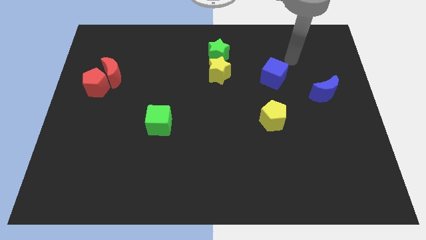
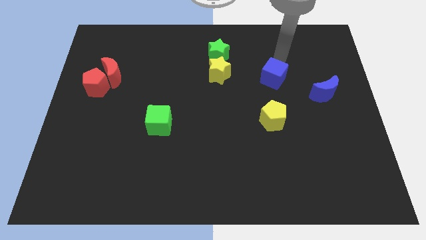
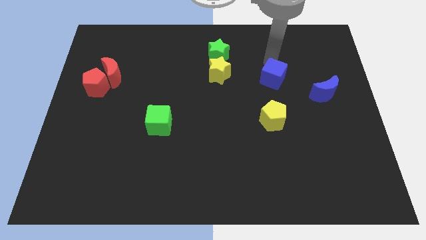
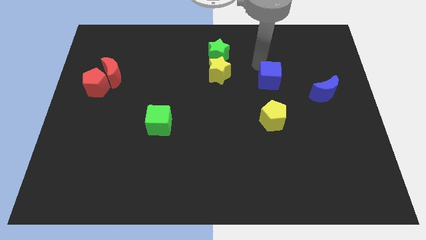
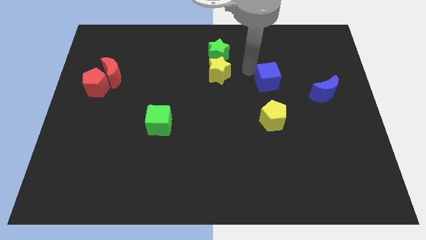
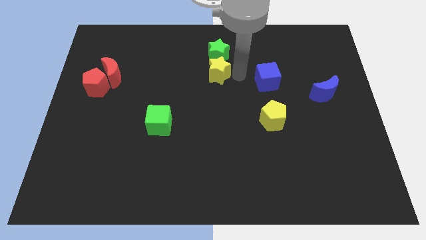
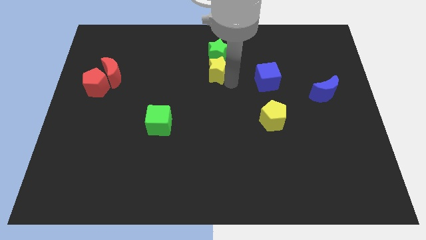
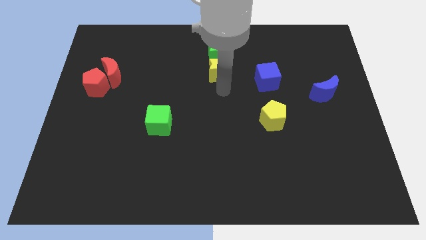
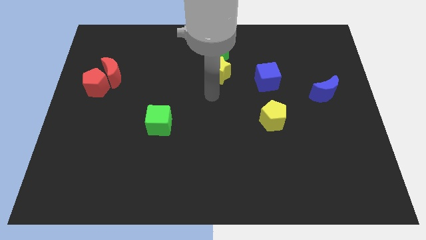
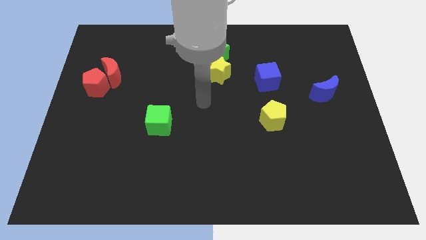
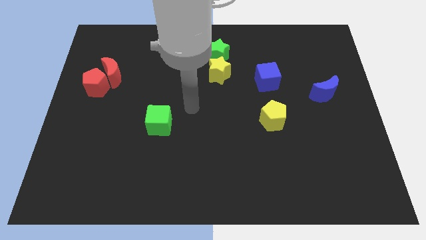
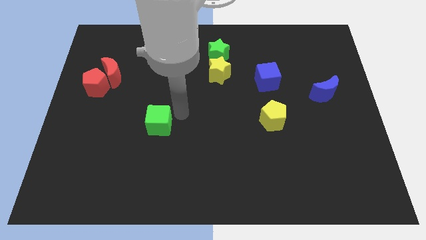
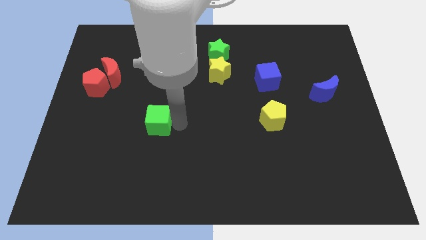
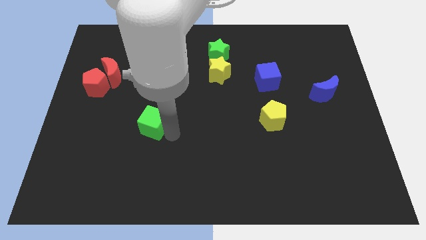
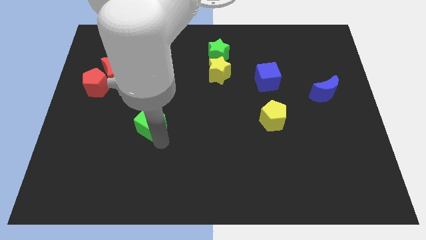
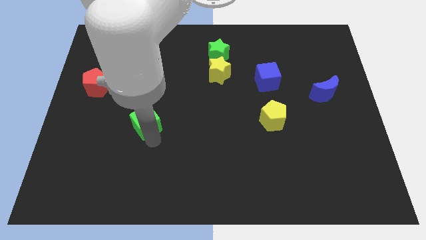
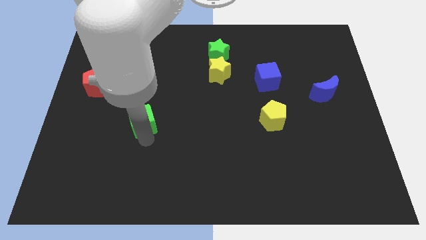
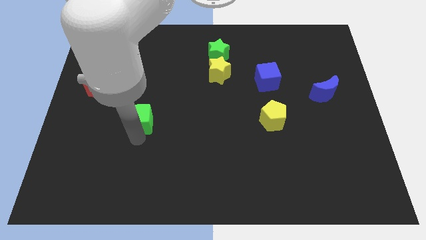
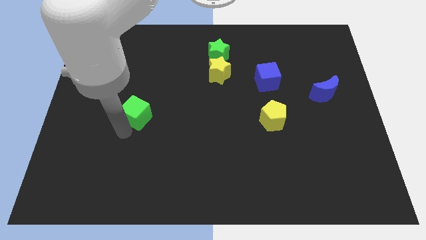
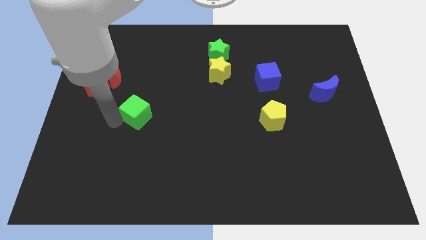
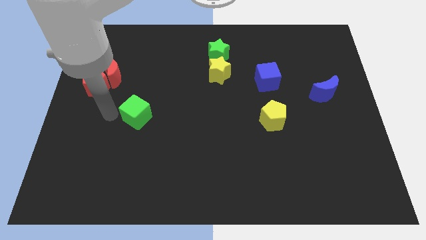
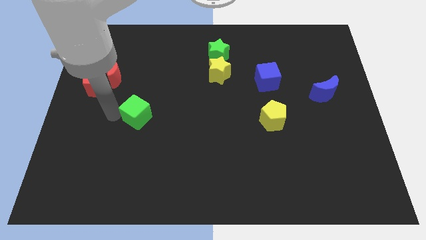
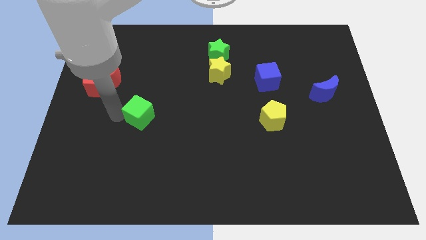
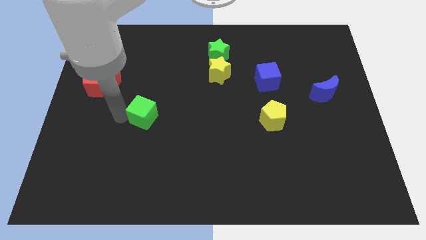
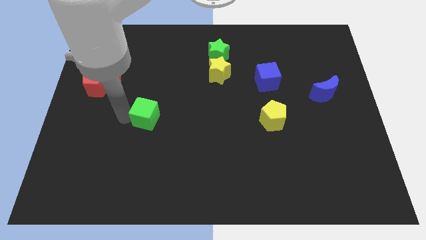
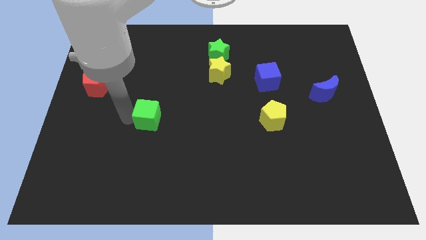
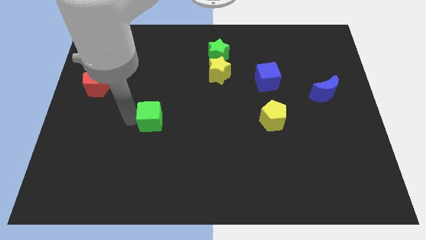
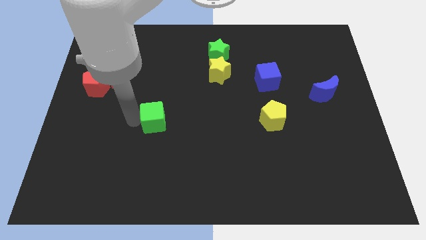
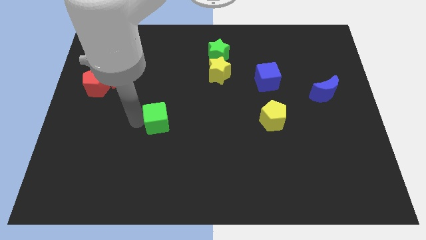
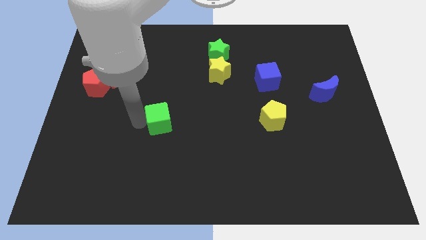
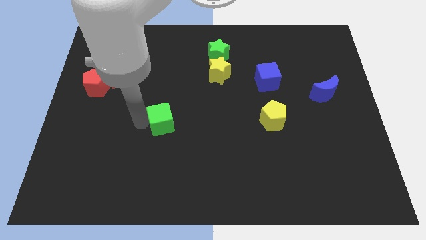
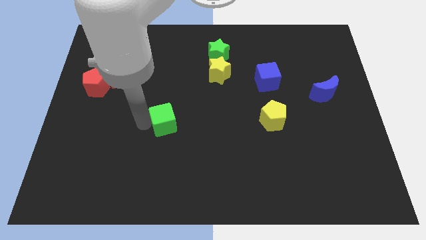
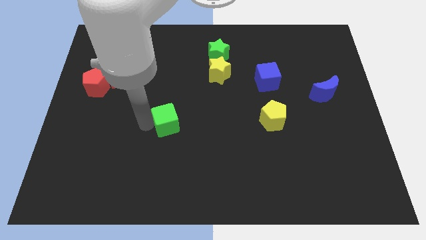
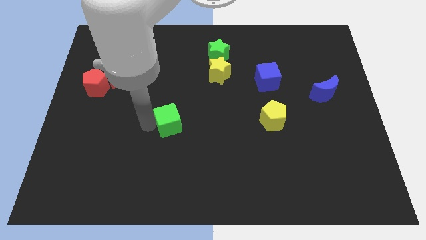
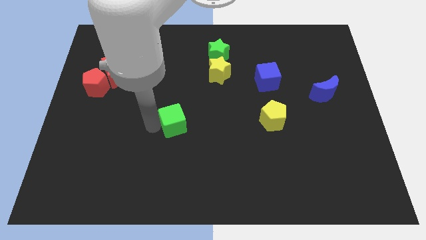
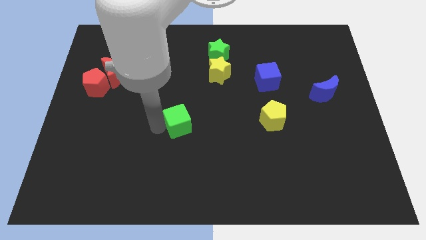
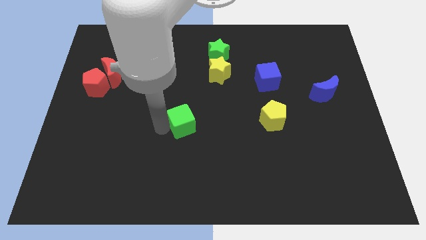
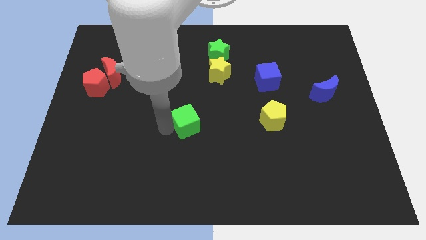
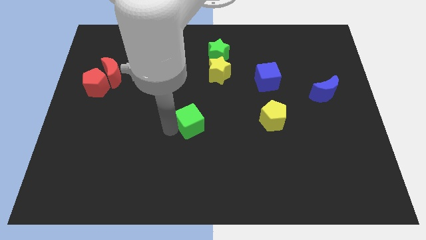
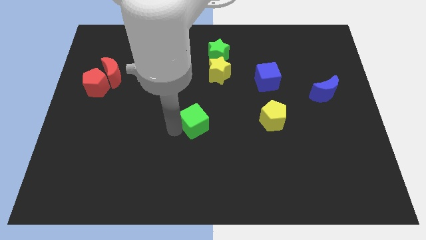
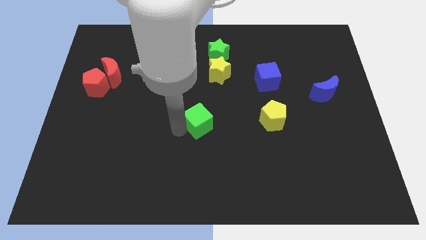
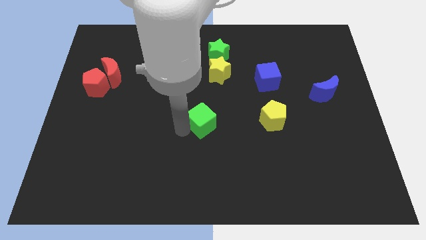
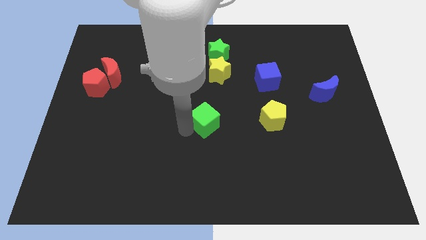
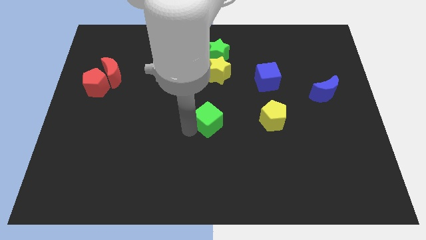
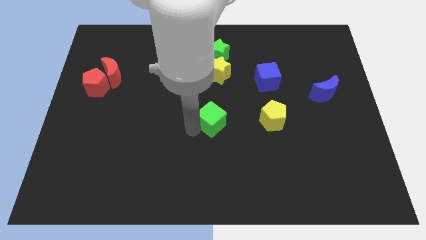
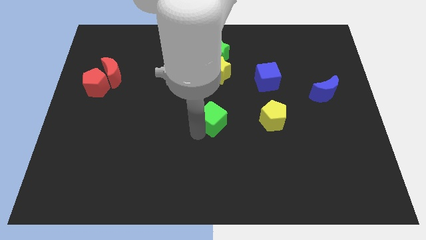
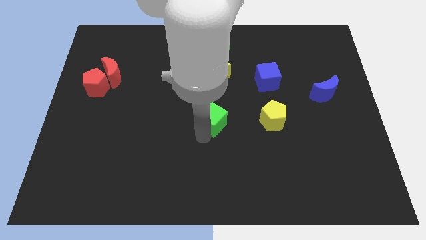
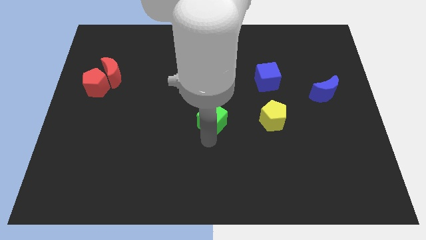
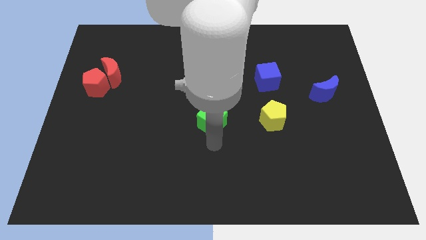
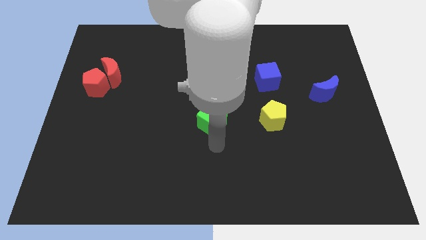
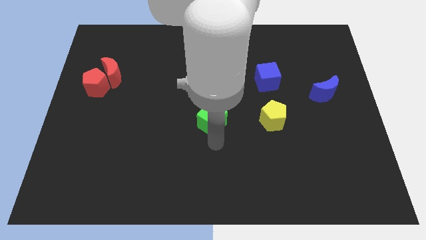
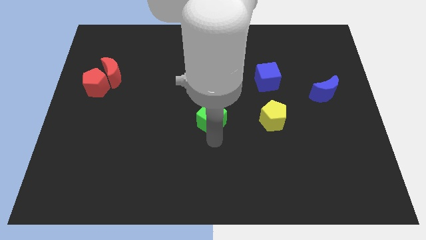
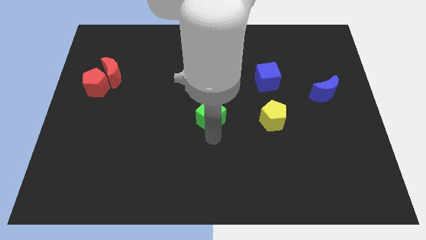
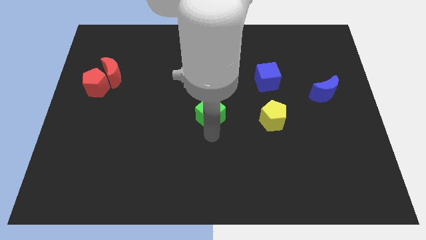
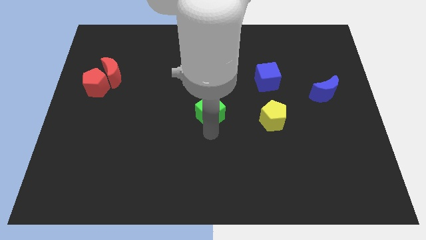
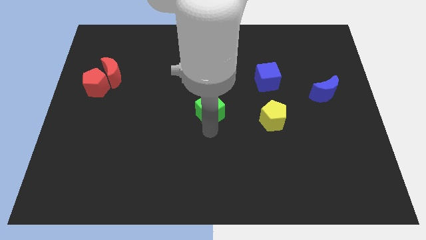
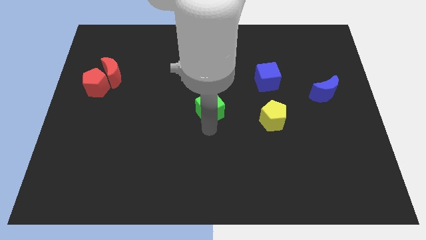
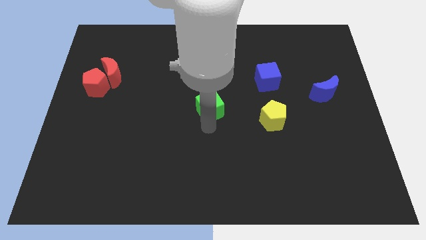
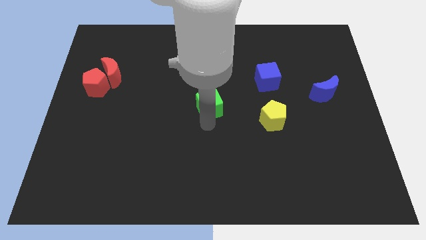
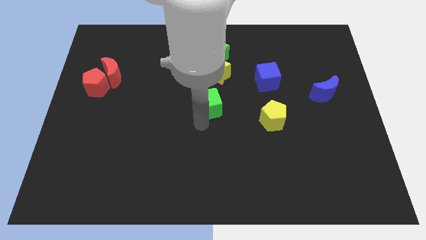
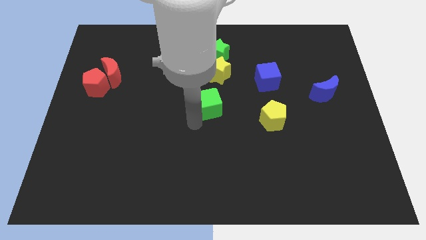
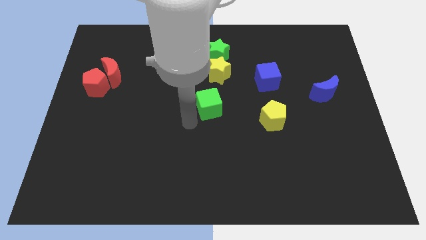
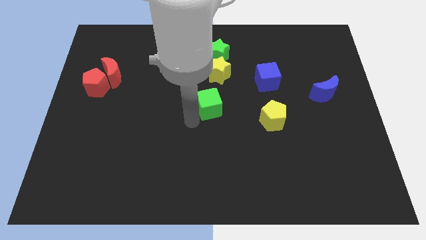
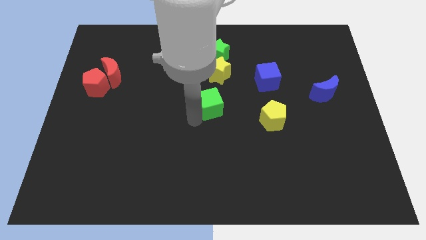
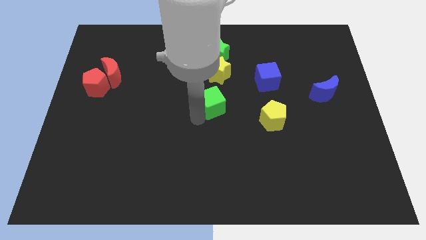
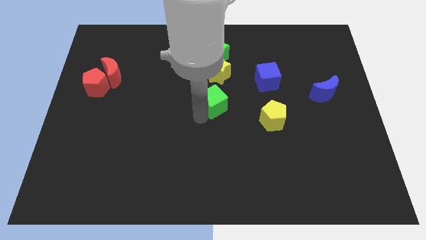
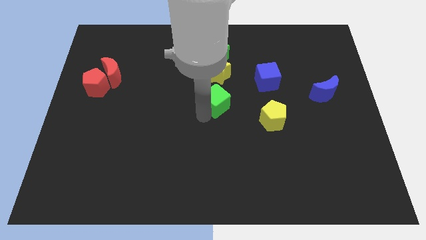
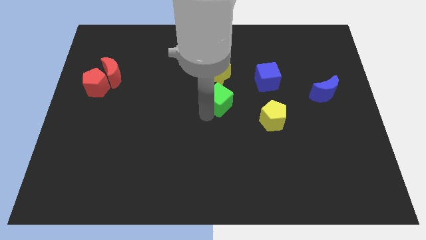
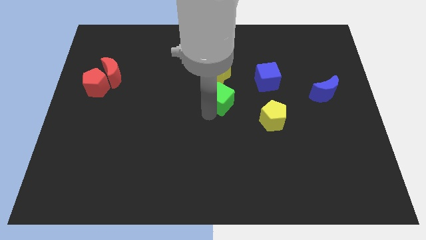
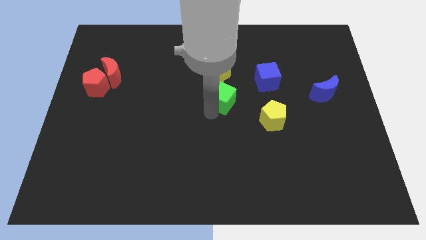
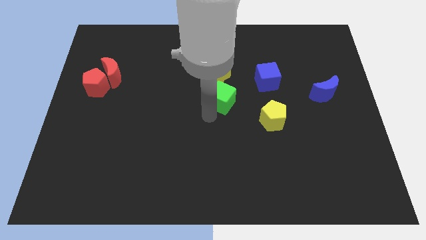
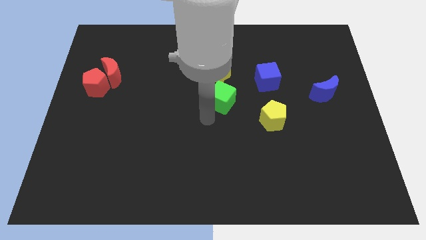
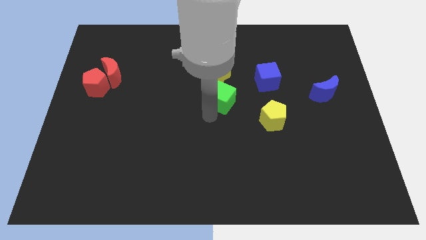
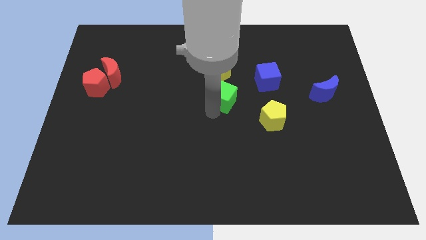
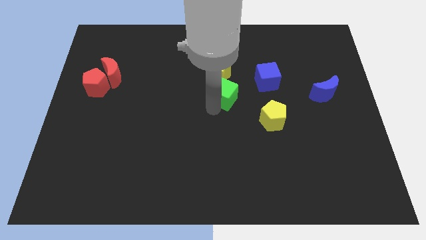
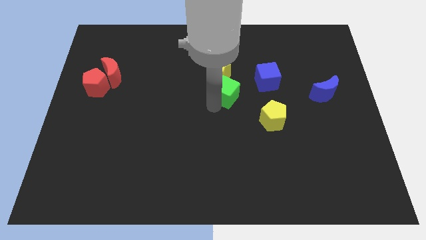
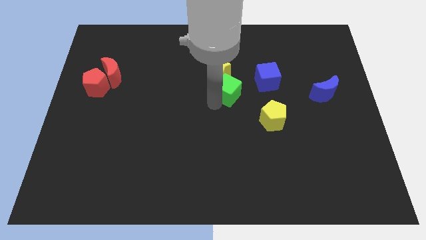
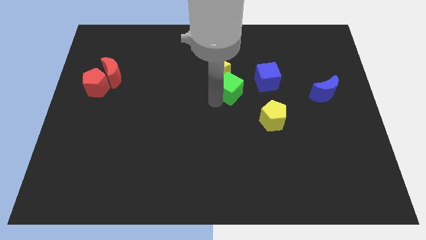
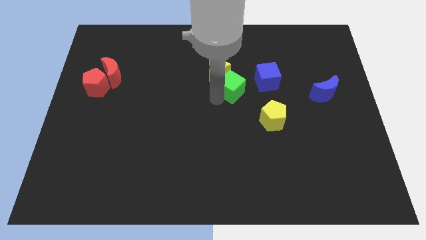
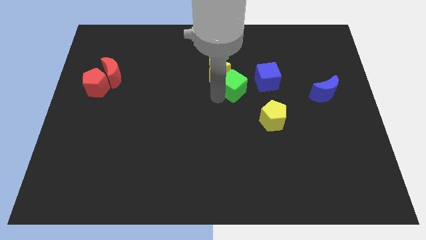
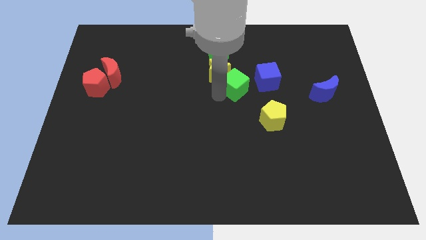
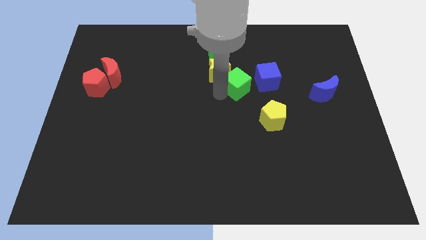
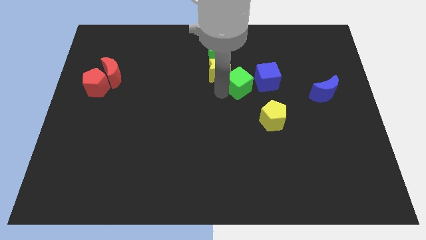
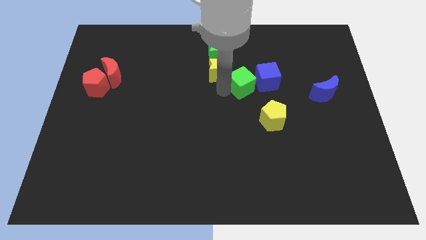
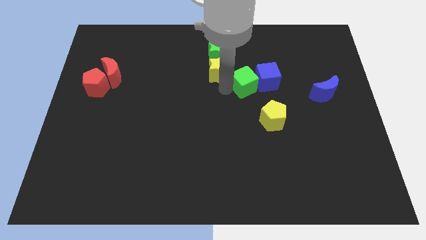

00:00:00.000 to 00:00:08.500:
put the green cube towards the blue cube
